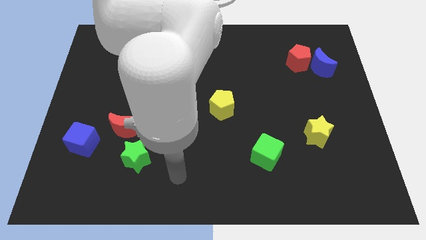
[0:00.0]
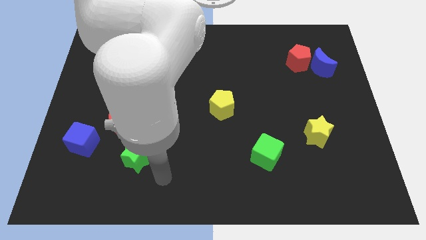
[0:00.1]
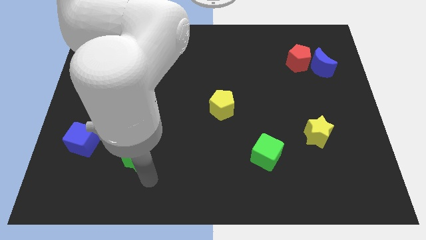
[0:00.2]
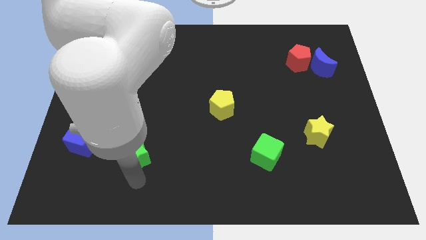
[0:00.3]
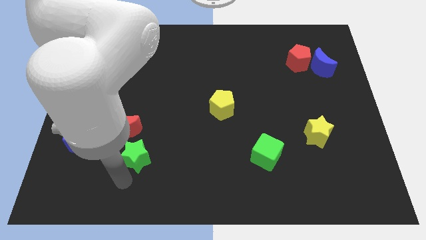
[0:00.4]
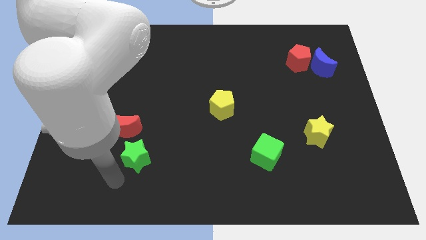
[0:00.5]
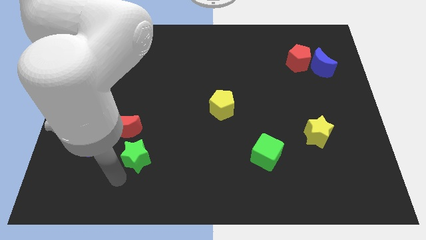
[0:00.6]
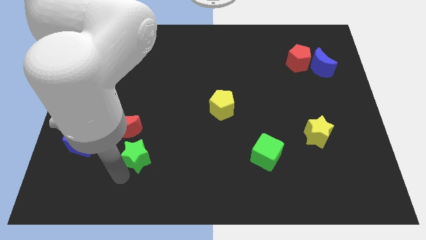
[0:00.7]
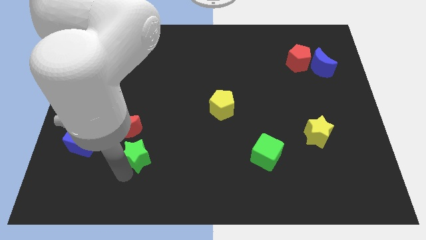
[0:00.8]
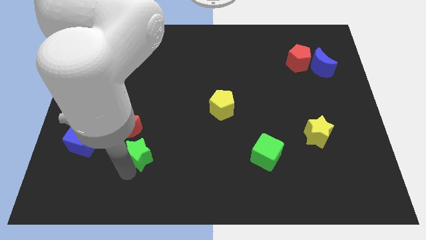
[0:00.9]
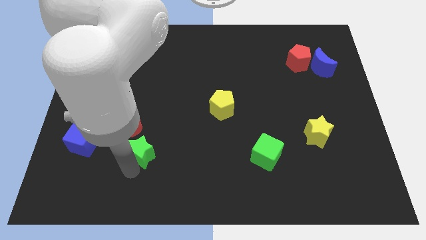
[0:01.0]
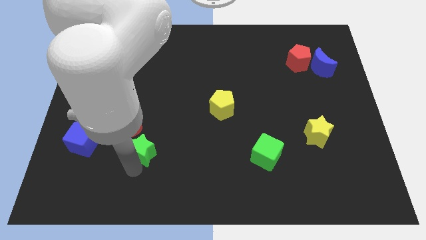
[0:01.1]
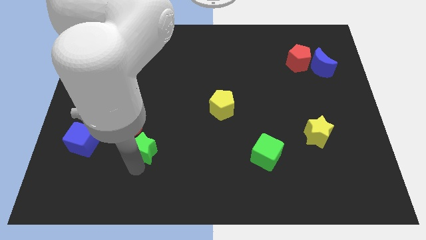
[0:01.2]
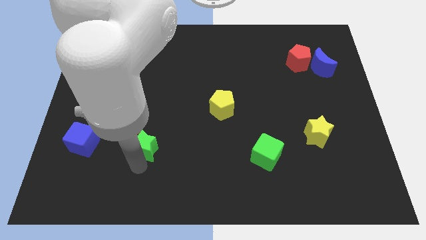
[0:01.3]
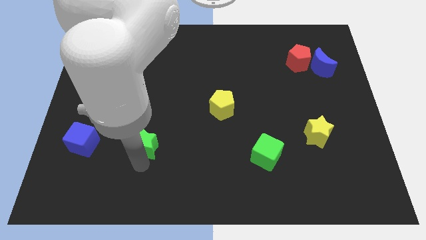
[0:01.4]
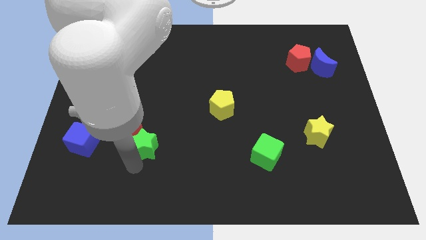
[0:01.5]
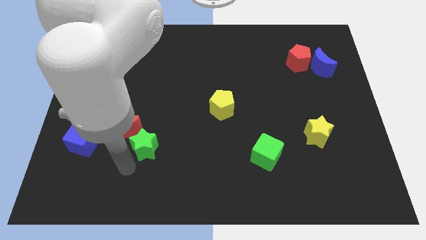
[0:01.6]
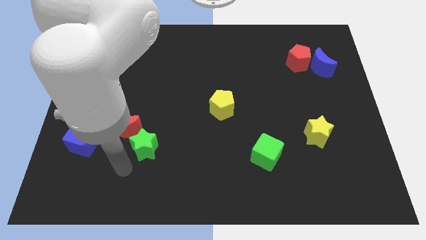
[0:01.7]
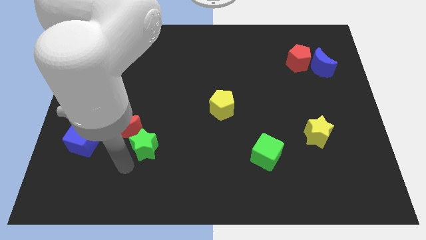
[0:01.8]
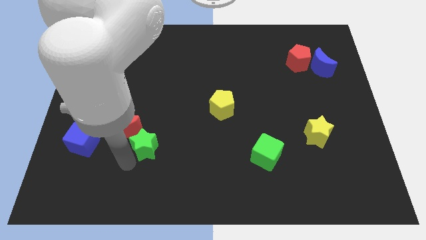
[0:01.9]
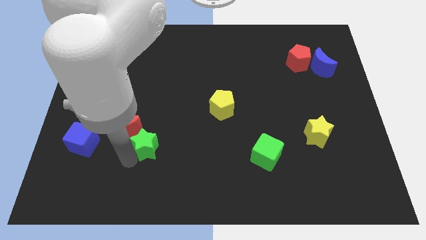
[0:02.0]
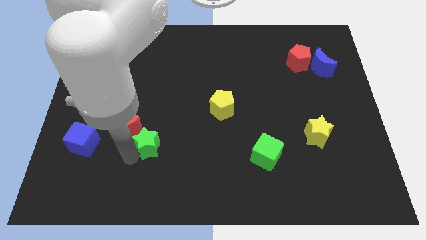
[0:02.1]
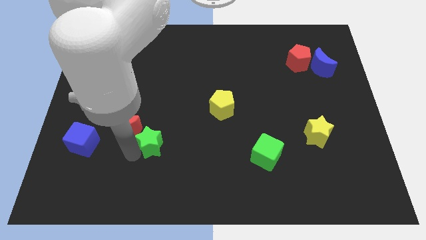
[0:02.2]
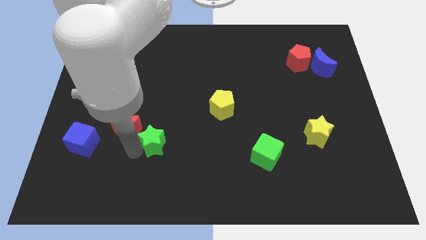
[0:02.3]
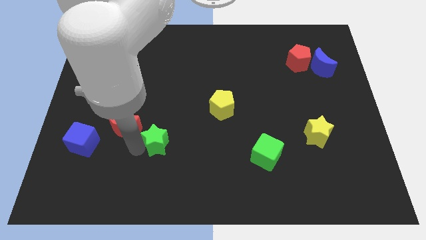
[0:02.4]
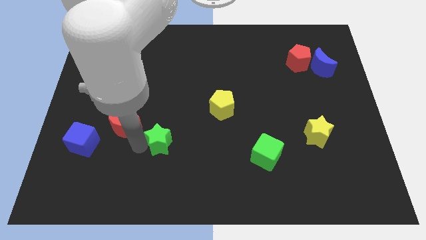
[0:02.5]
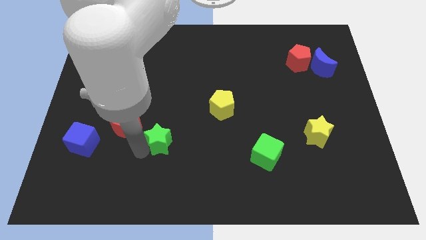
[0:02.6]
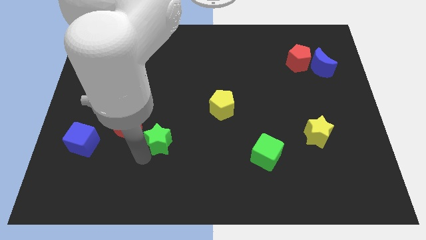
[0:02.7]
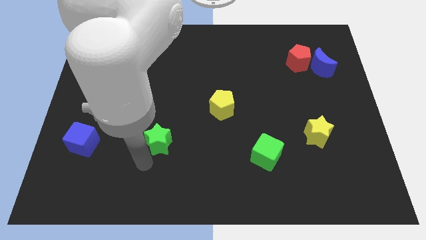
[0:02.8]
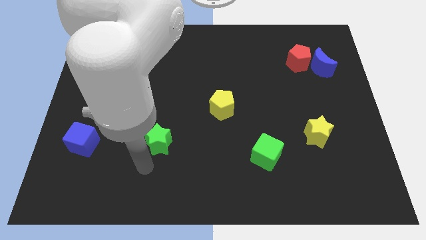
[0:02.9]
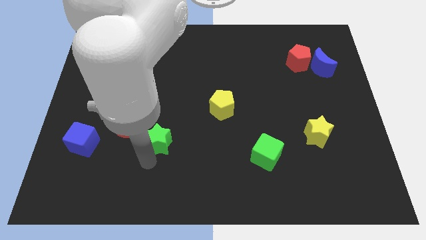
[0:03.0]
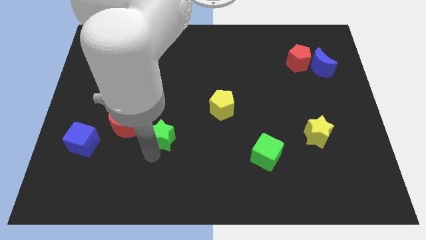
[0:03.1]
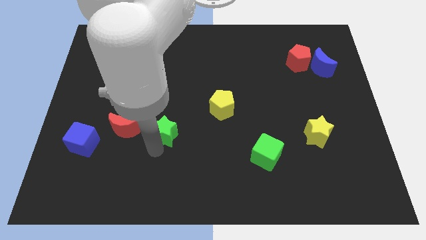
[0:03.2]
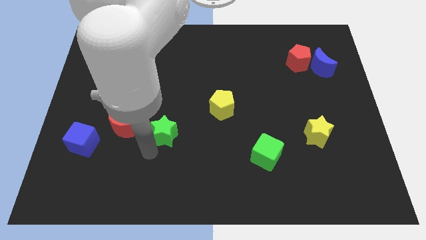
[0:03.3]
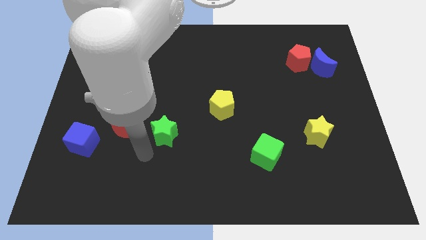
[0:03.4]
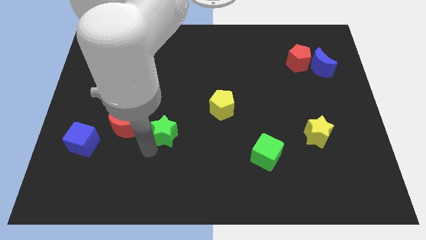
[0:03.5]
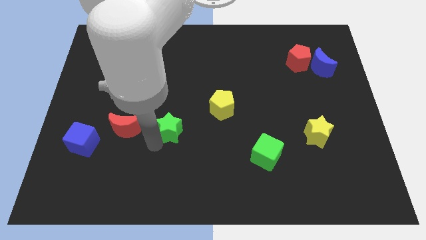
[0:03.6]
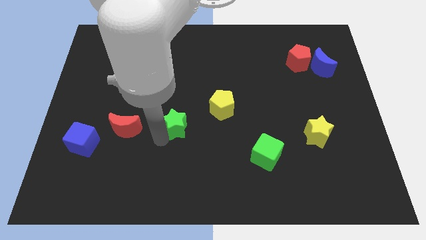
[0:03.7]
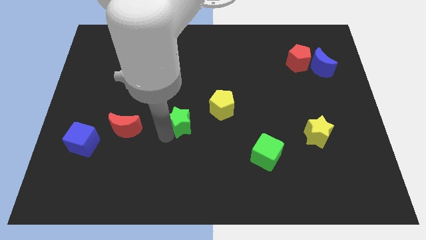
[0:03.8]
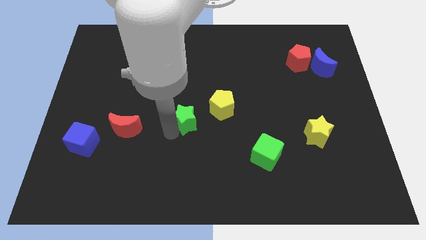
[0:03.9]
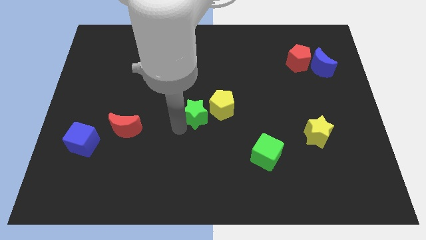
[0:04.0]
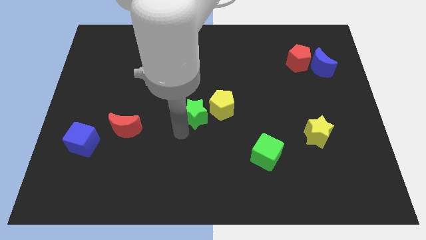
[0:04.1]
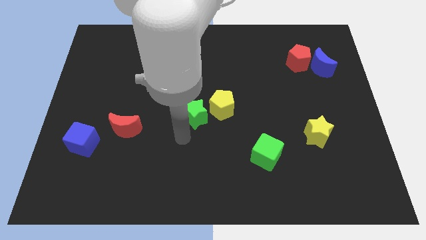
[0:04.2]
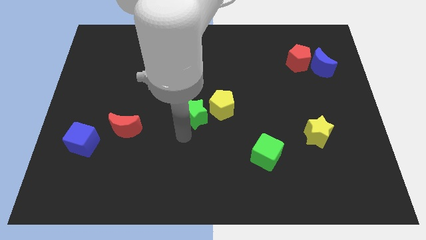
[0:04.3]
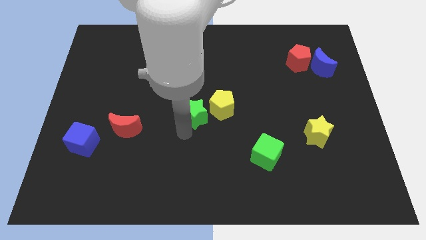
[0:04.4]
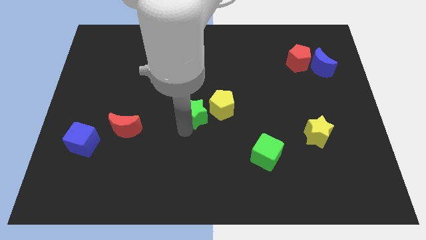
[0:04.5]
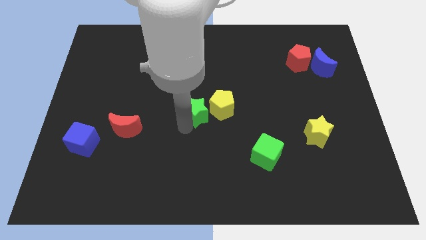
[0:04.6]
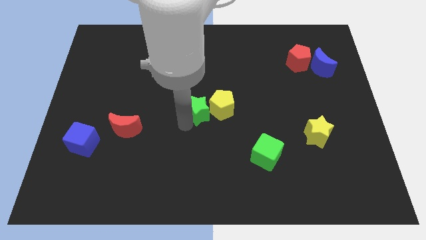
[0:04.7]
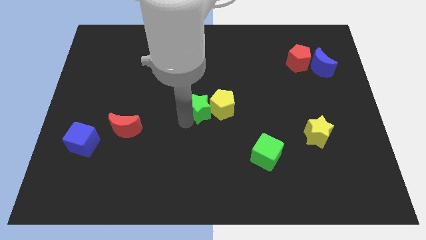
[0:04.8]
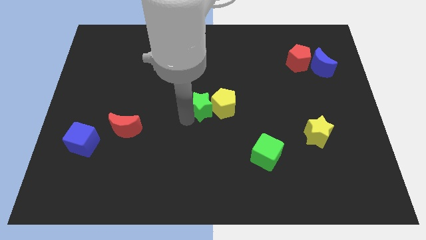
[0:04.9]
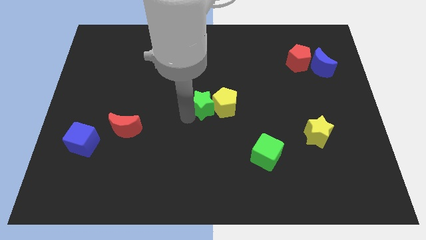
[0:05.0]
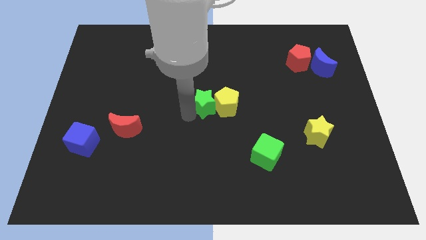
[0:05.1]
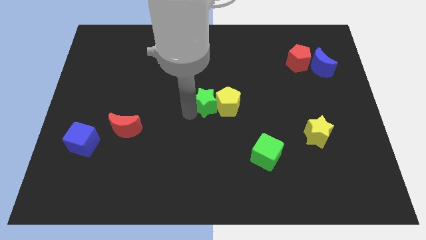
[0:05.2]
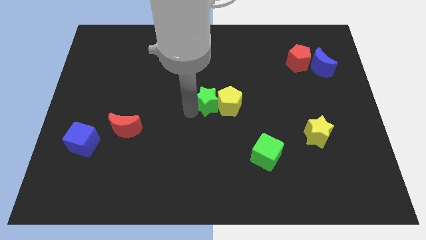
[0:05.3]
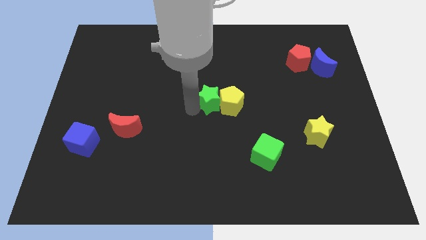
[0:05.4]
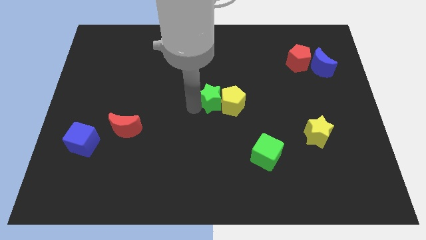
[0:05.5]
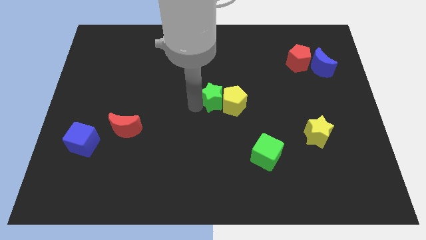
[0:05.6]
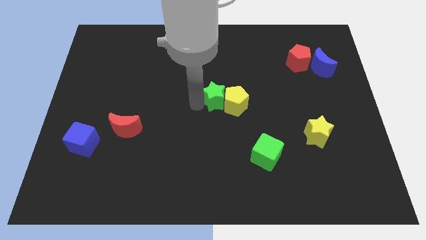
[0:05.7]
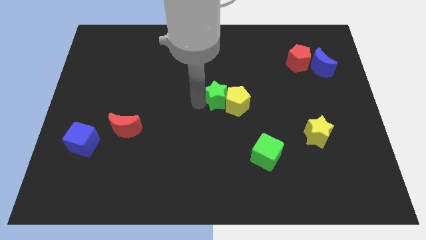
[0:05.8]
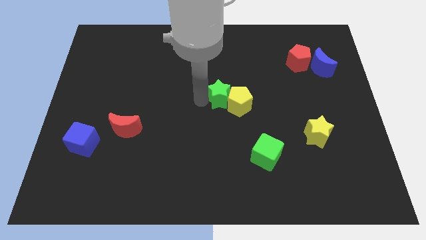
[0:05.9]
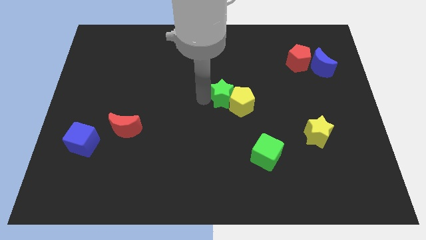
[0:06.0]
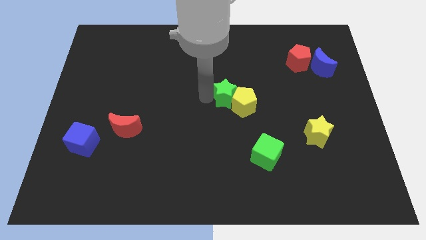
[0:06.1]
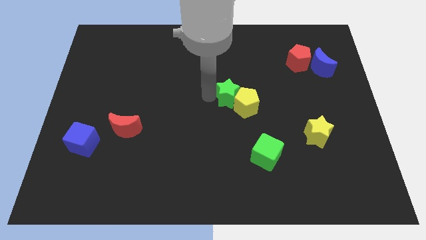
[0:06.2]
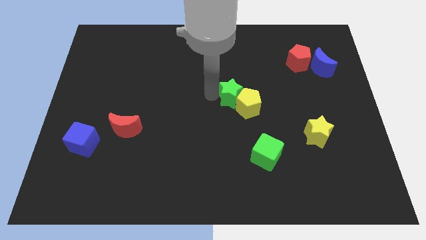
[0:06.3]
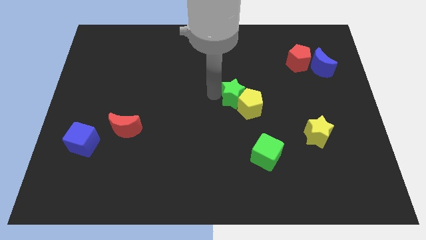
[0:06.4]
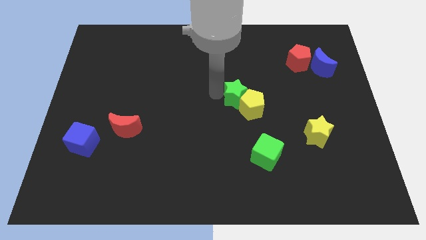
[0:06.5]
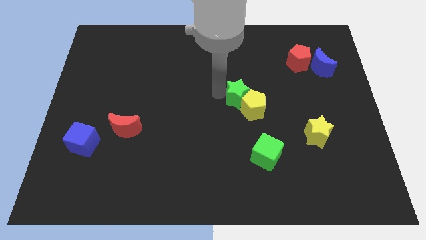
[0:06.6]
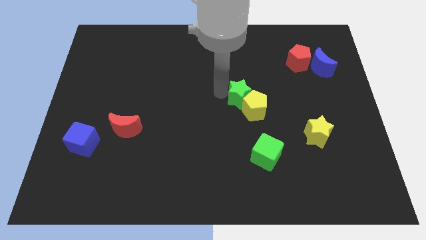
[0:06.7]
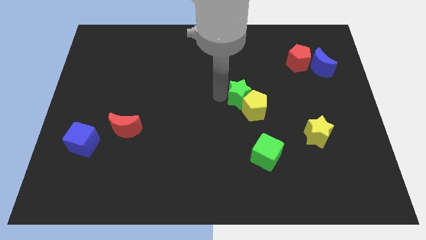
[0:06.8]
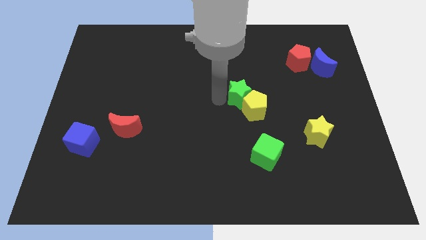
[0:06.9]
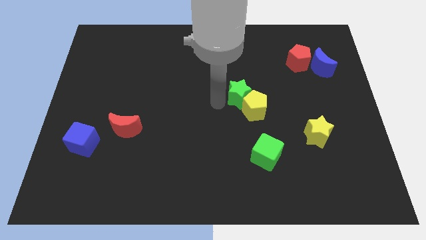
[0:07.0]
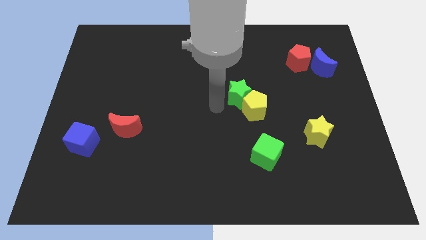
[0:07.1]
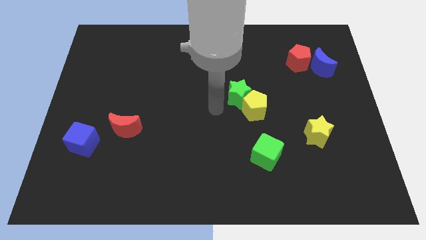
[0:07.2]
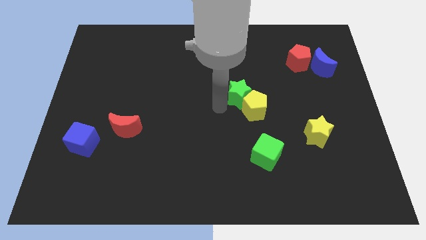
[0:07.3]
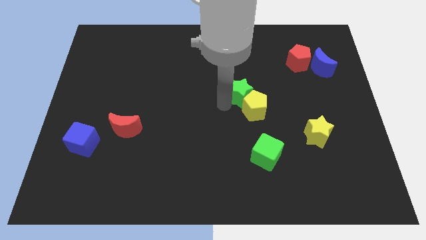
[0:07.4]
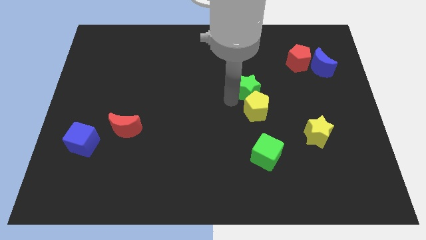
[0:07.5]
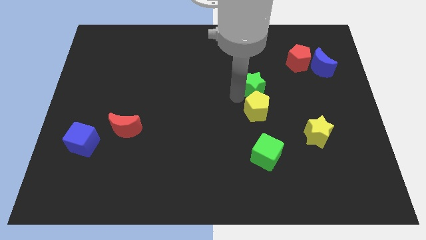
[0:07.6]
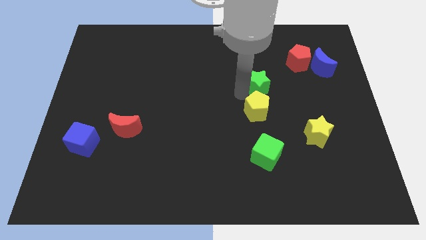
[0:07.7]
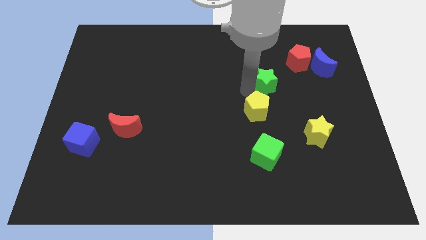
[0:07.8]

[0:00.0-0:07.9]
move the green star to the bottom left side of the red pentagon
